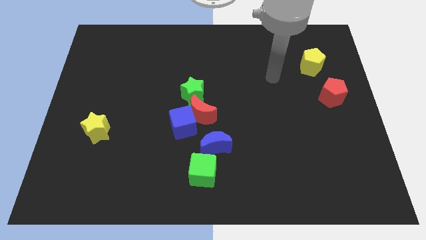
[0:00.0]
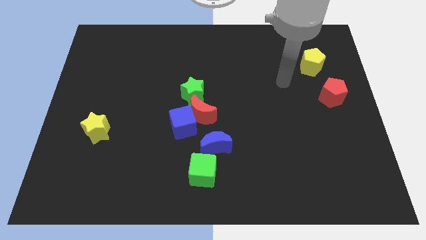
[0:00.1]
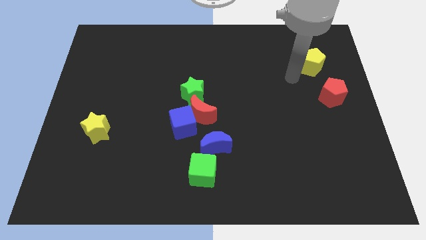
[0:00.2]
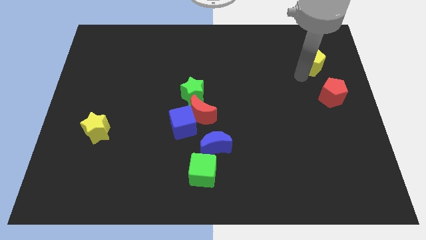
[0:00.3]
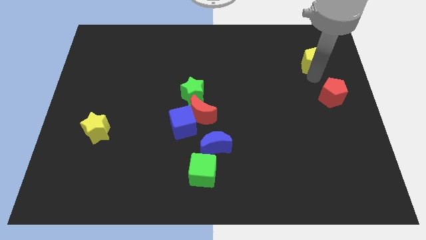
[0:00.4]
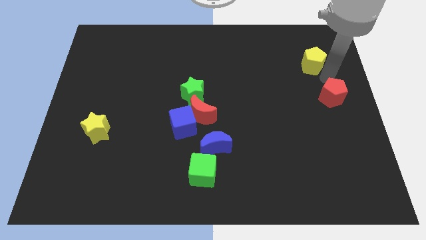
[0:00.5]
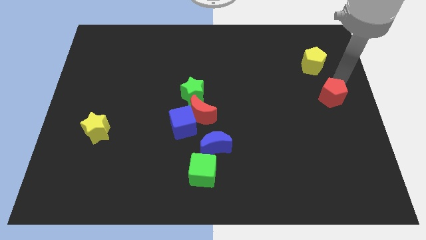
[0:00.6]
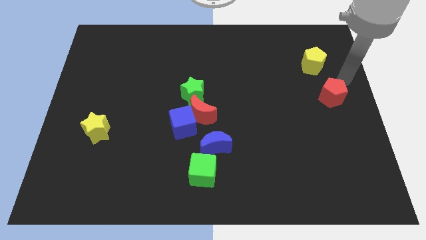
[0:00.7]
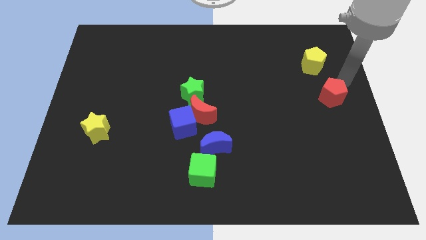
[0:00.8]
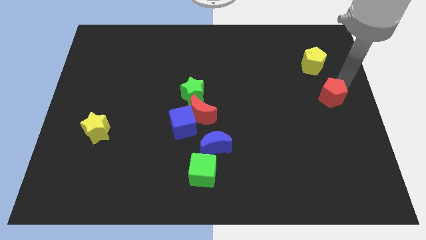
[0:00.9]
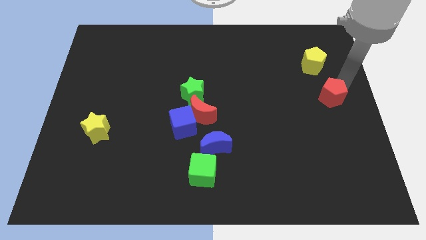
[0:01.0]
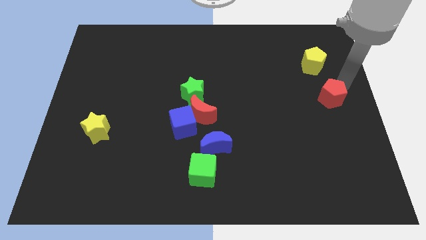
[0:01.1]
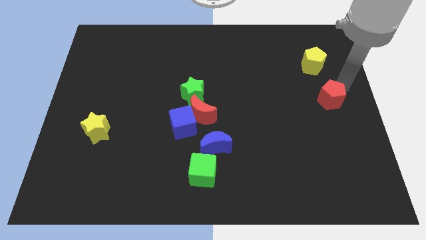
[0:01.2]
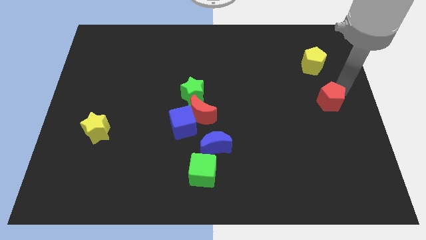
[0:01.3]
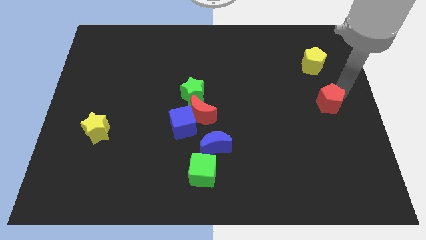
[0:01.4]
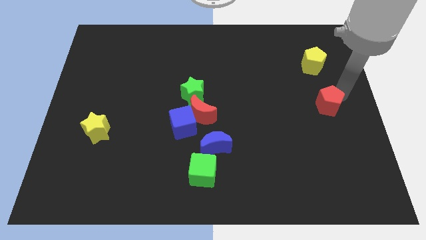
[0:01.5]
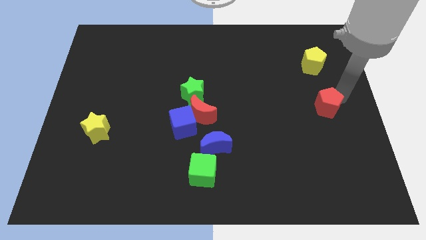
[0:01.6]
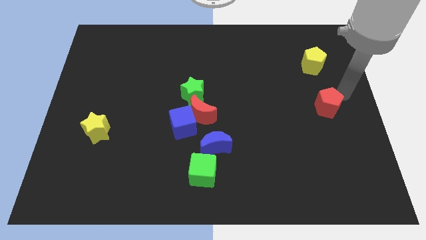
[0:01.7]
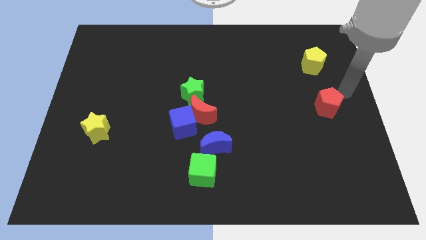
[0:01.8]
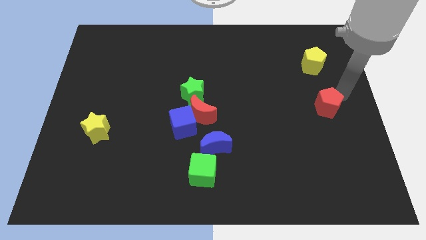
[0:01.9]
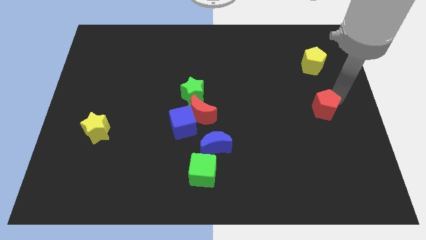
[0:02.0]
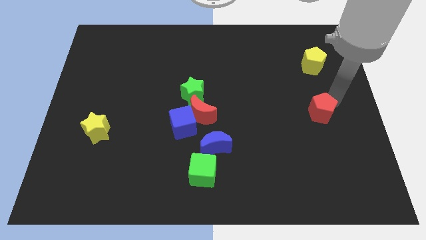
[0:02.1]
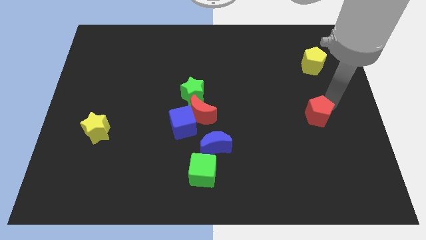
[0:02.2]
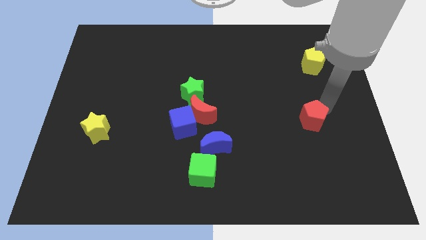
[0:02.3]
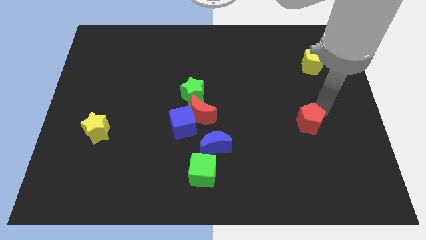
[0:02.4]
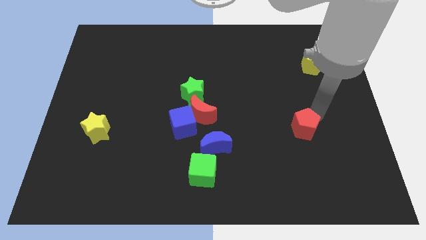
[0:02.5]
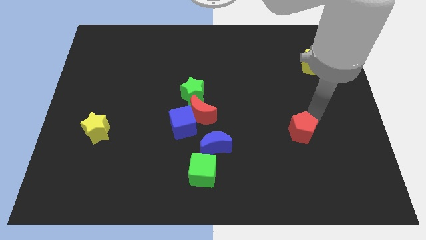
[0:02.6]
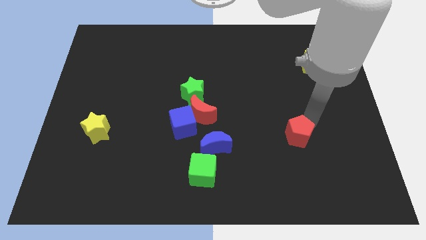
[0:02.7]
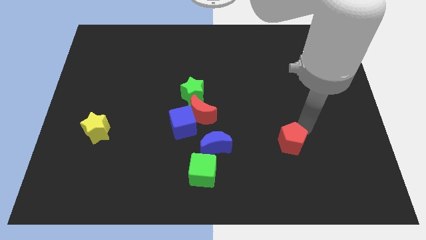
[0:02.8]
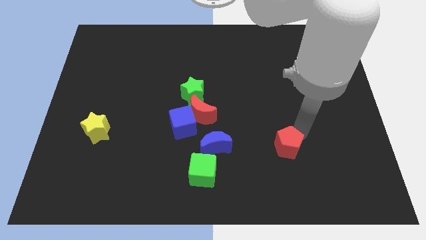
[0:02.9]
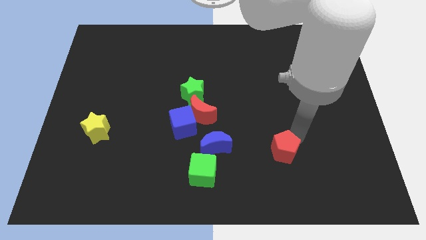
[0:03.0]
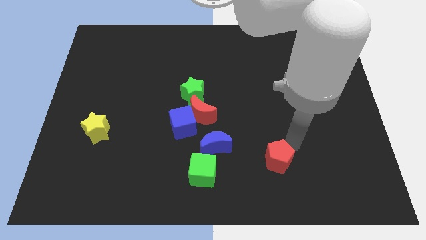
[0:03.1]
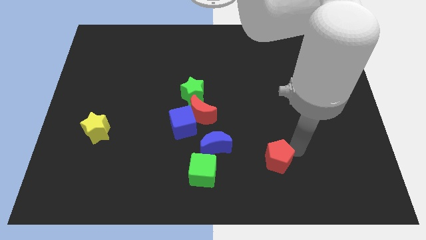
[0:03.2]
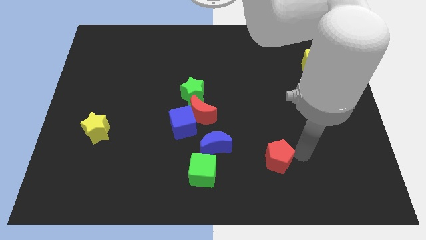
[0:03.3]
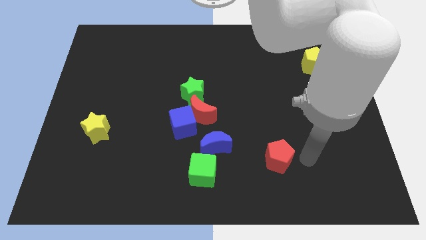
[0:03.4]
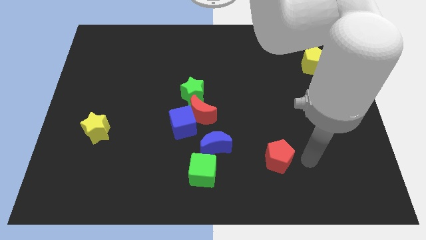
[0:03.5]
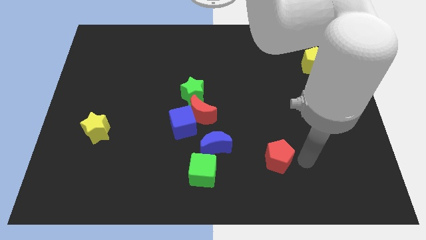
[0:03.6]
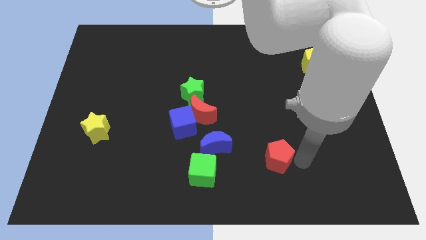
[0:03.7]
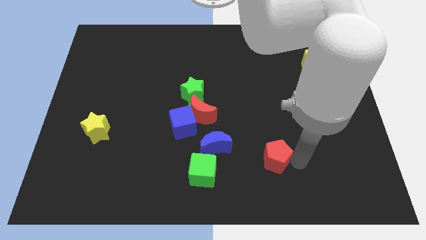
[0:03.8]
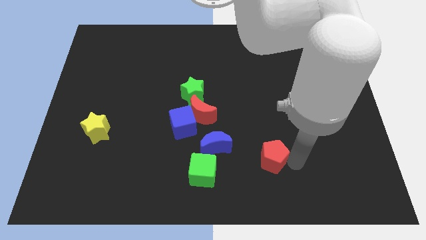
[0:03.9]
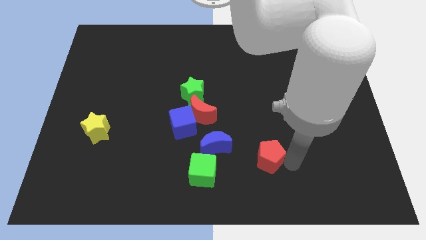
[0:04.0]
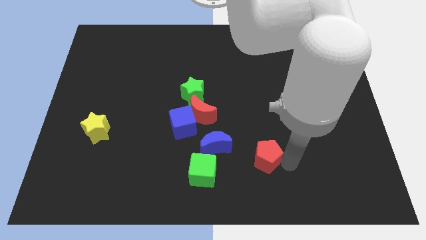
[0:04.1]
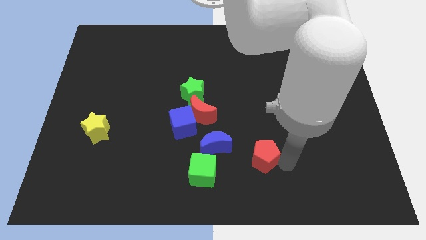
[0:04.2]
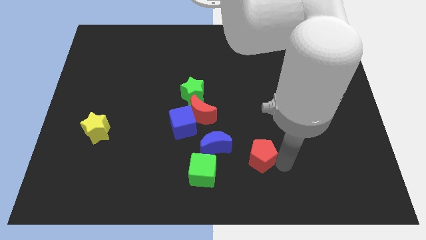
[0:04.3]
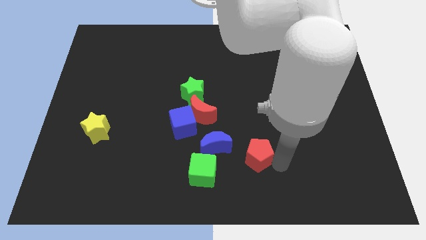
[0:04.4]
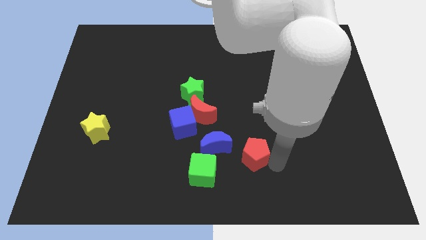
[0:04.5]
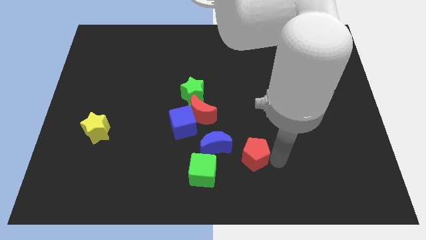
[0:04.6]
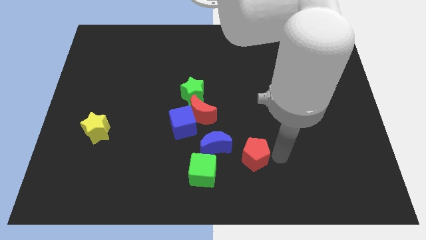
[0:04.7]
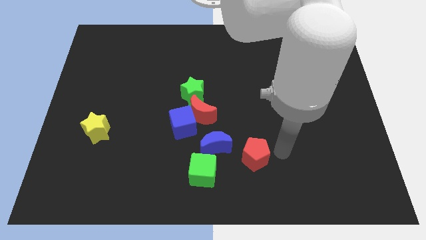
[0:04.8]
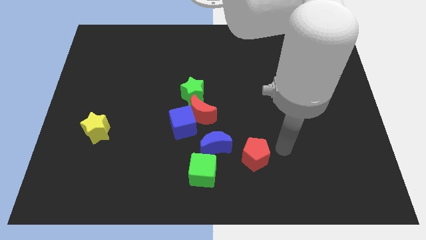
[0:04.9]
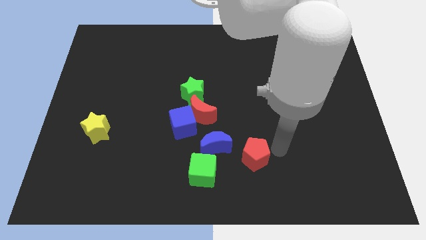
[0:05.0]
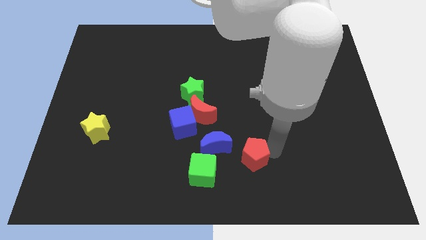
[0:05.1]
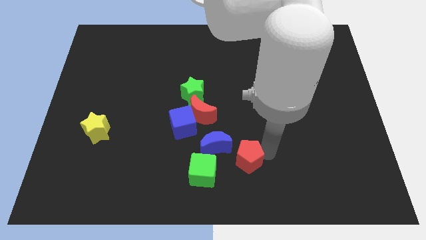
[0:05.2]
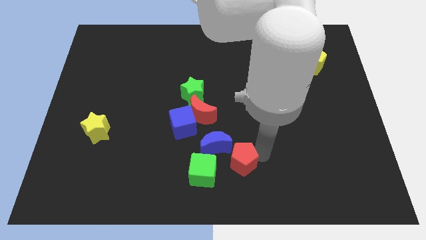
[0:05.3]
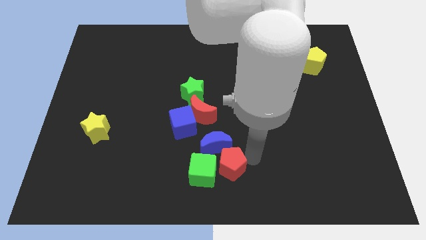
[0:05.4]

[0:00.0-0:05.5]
push the red pentagon to the green cube

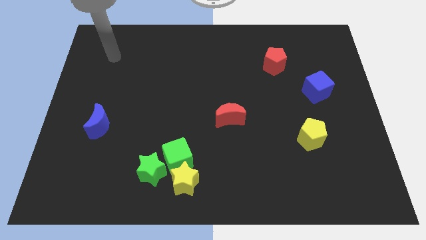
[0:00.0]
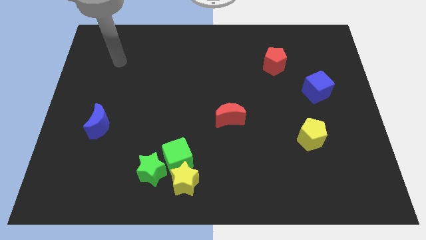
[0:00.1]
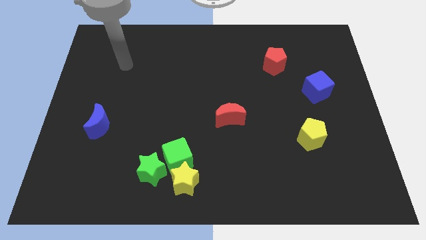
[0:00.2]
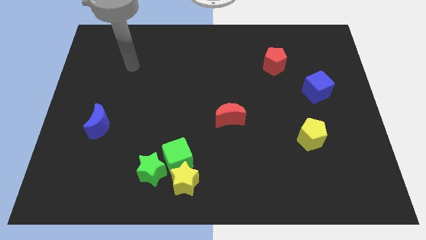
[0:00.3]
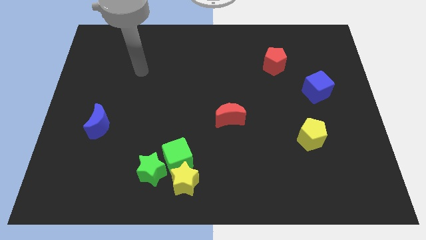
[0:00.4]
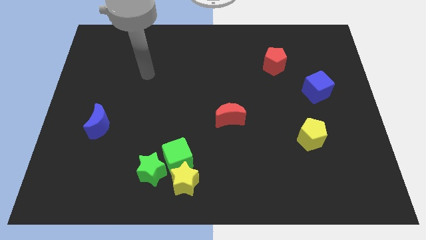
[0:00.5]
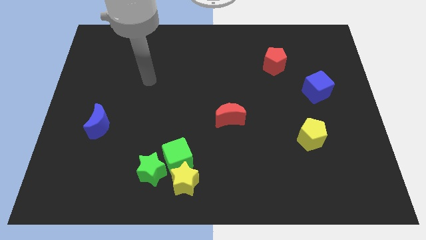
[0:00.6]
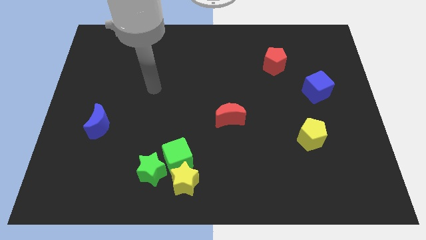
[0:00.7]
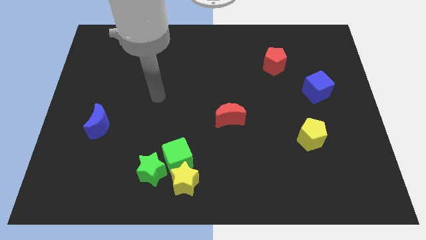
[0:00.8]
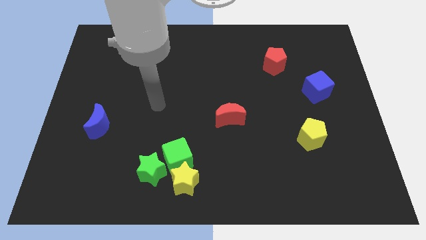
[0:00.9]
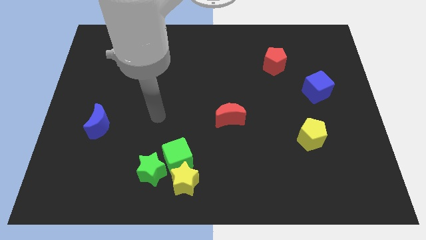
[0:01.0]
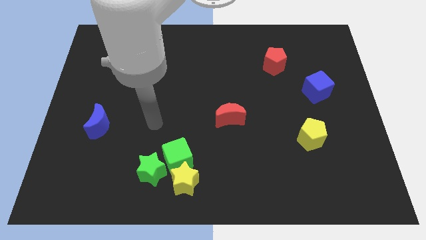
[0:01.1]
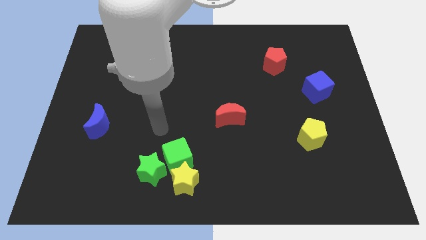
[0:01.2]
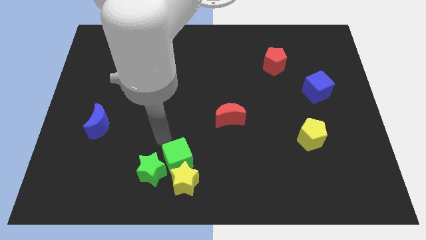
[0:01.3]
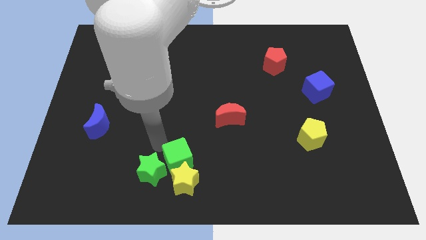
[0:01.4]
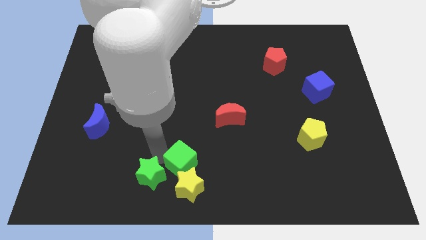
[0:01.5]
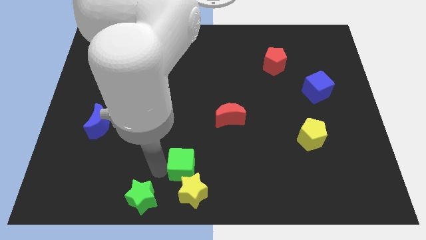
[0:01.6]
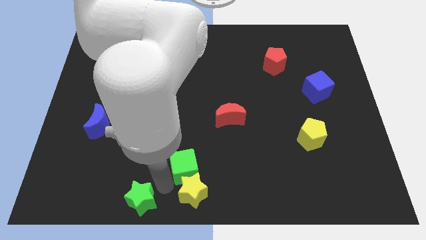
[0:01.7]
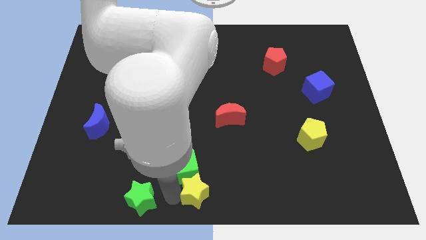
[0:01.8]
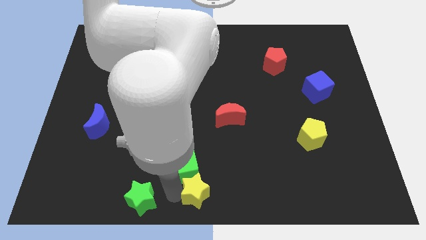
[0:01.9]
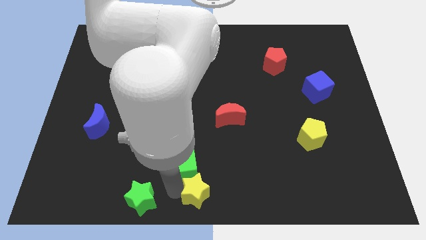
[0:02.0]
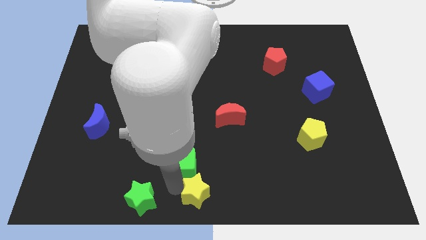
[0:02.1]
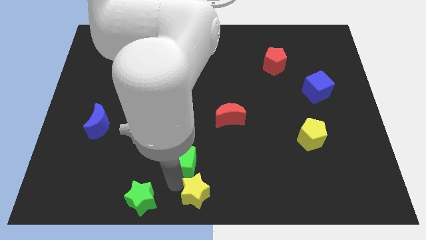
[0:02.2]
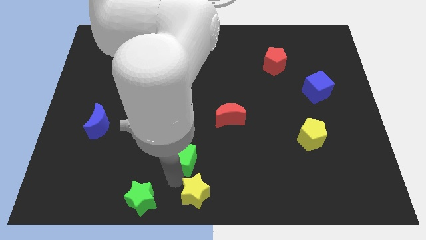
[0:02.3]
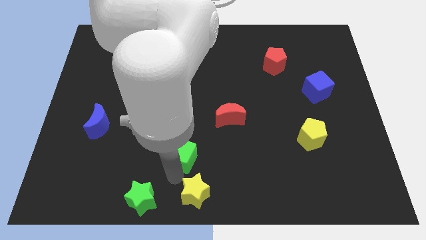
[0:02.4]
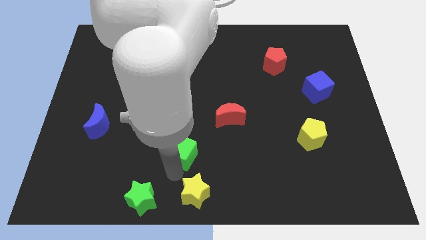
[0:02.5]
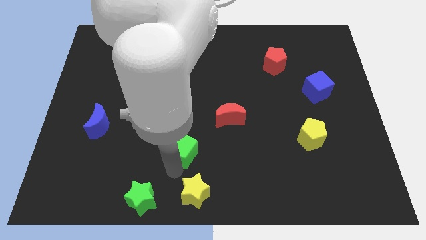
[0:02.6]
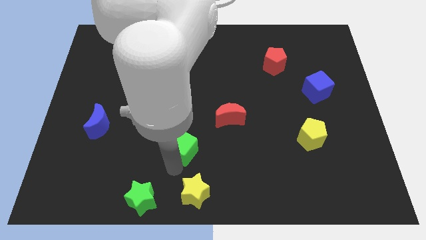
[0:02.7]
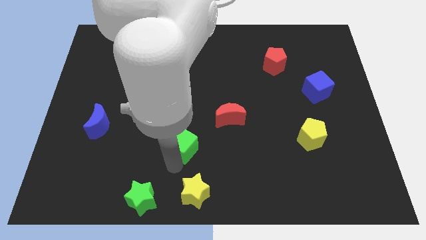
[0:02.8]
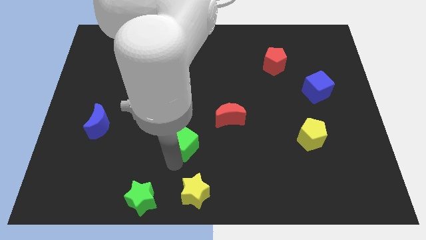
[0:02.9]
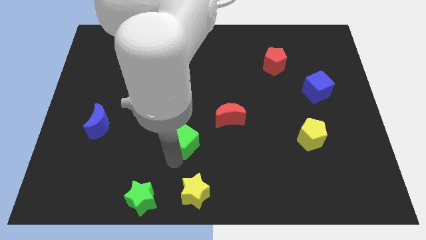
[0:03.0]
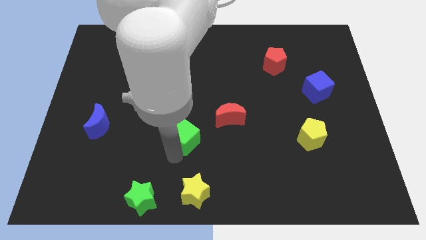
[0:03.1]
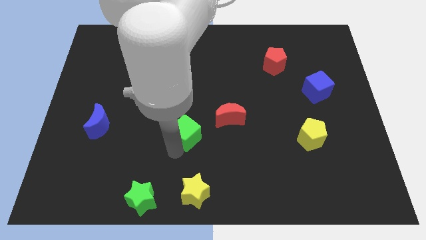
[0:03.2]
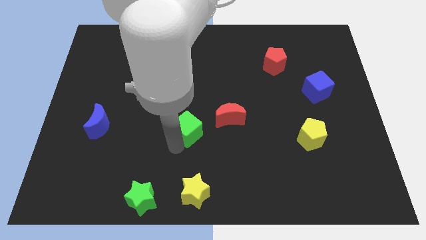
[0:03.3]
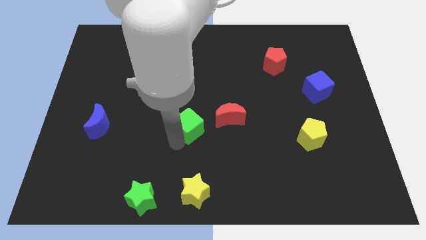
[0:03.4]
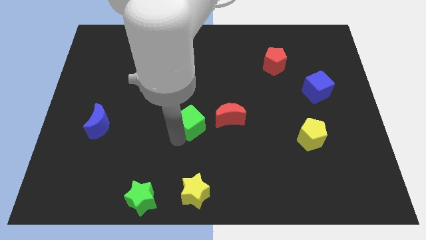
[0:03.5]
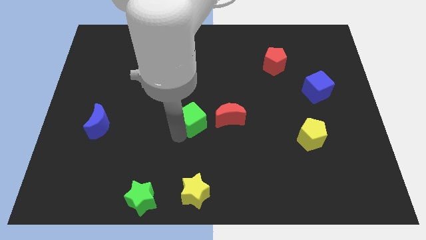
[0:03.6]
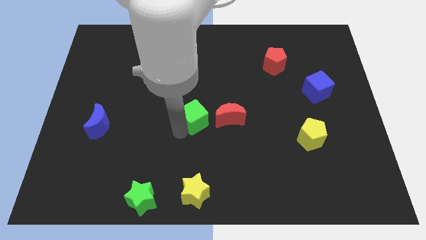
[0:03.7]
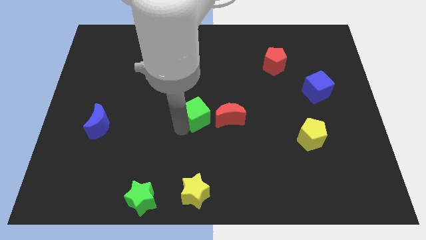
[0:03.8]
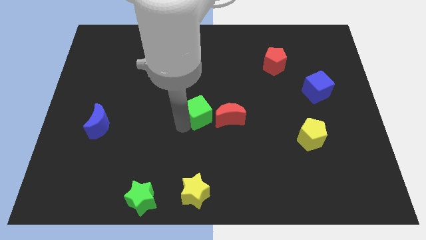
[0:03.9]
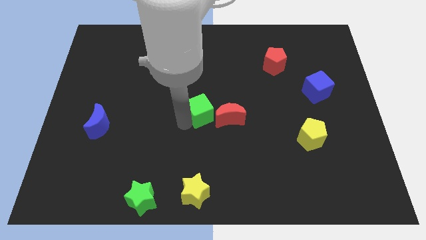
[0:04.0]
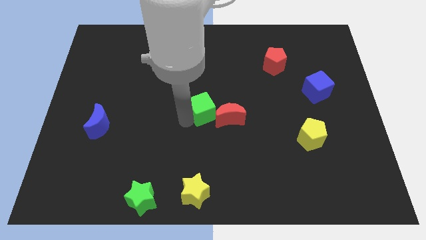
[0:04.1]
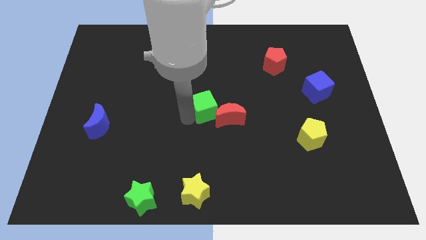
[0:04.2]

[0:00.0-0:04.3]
move the green cube towards the red moon
